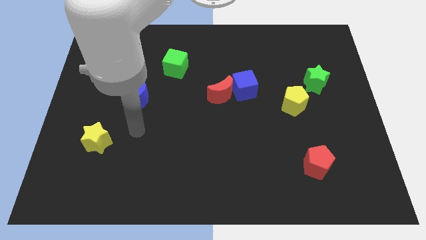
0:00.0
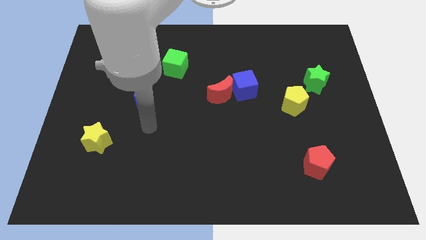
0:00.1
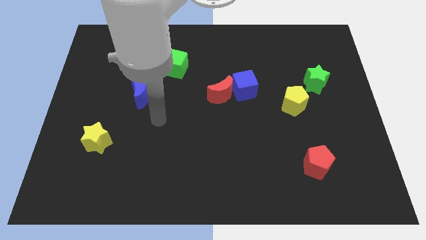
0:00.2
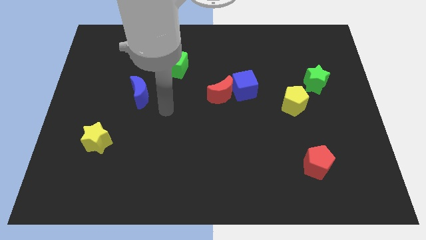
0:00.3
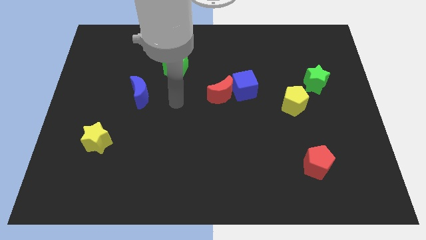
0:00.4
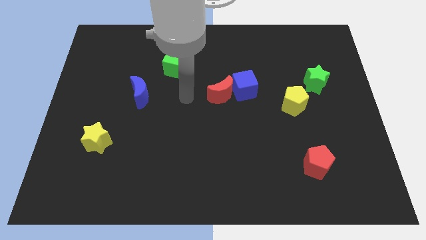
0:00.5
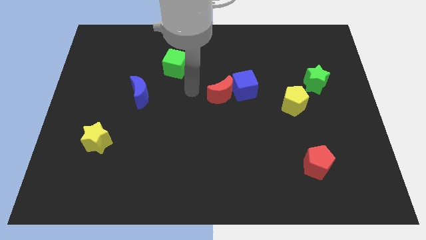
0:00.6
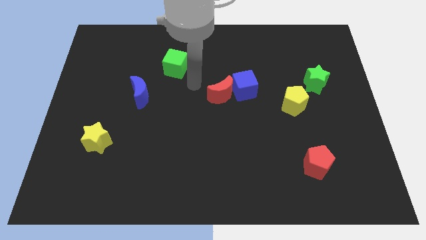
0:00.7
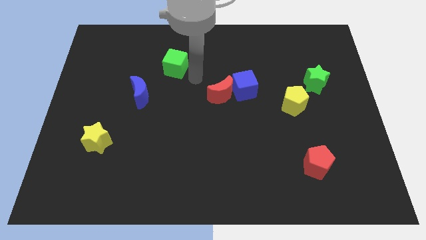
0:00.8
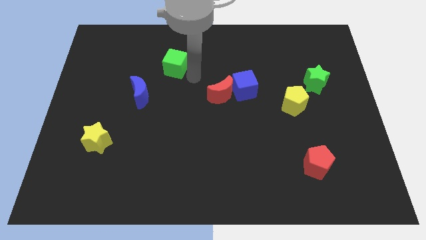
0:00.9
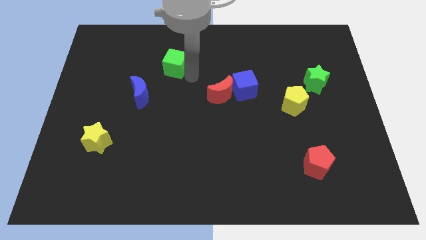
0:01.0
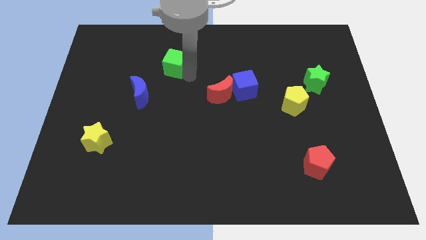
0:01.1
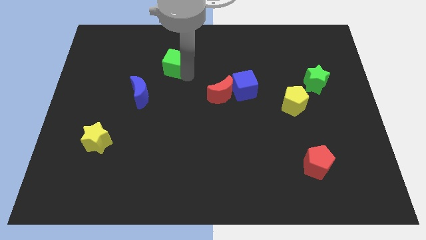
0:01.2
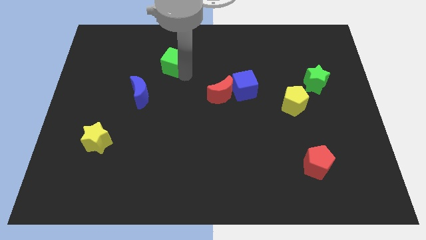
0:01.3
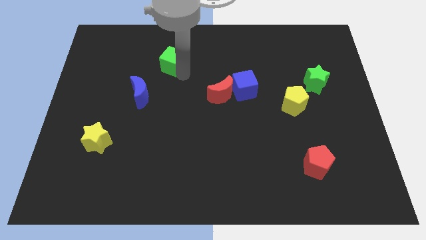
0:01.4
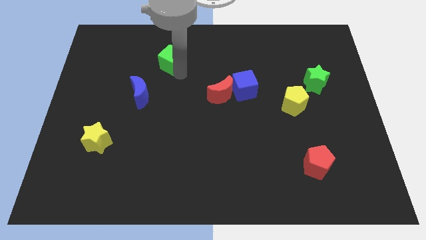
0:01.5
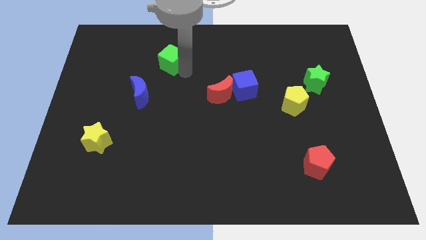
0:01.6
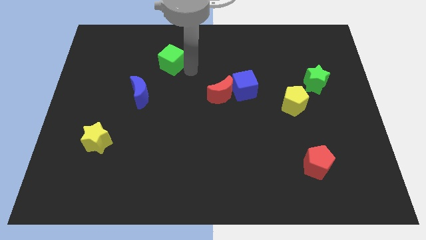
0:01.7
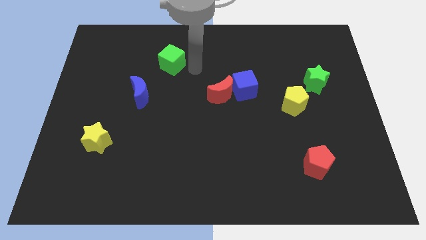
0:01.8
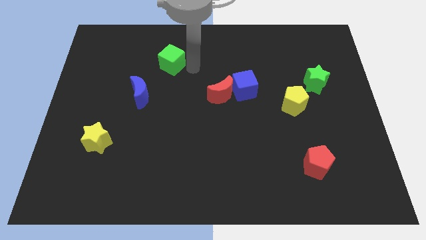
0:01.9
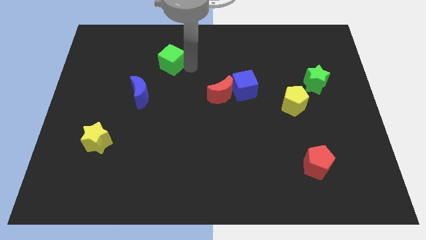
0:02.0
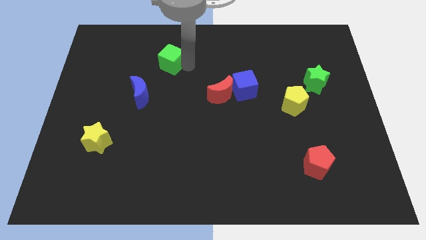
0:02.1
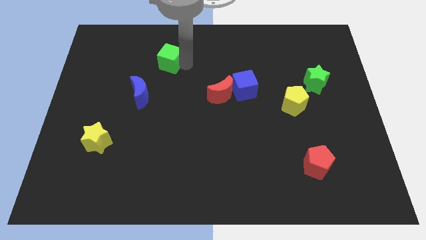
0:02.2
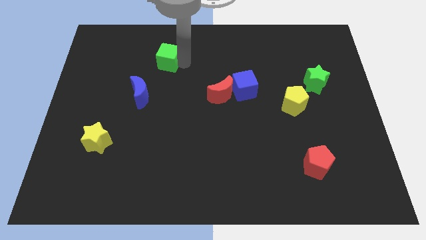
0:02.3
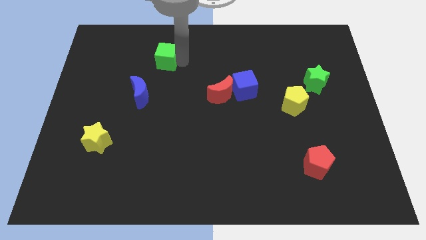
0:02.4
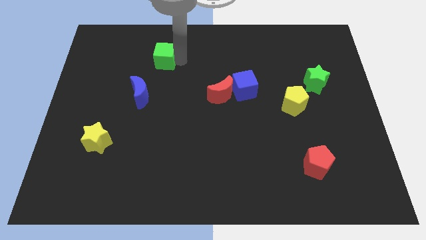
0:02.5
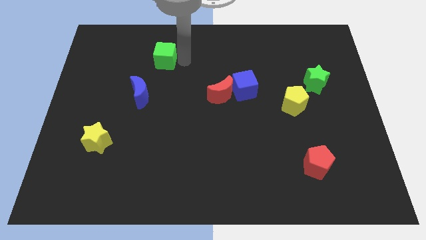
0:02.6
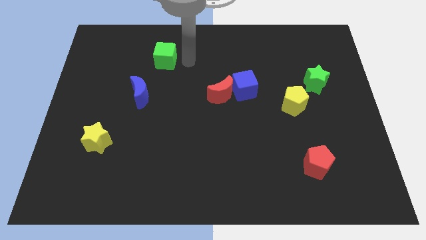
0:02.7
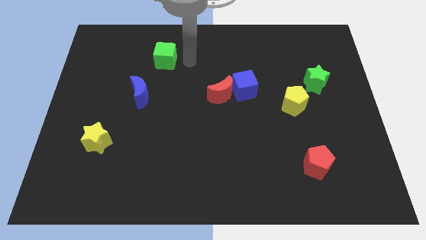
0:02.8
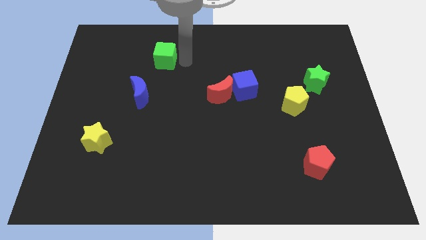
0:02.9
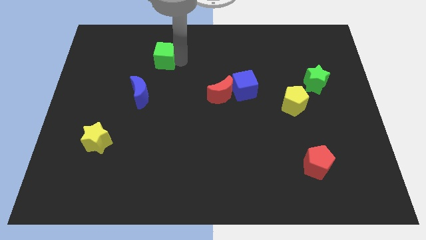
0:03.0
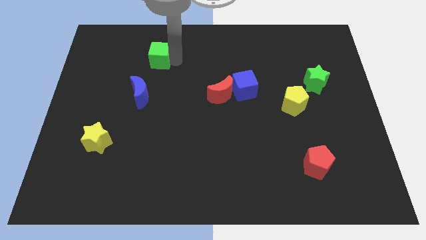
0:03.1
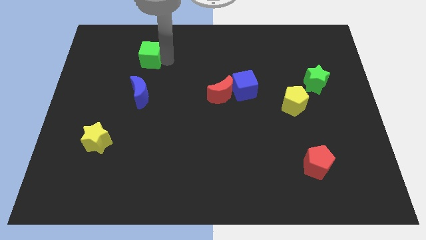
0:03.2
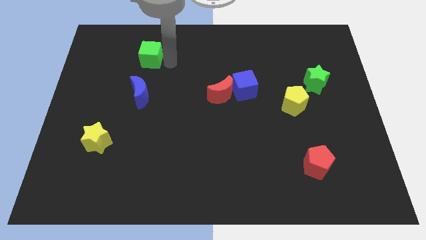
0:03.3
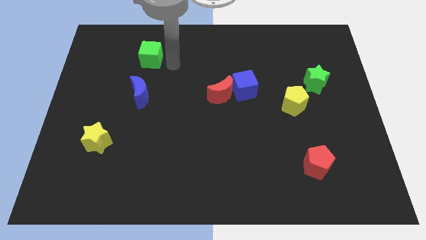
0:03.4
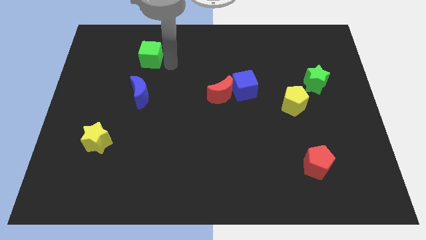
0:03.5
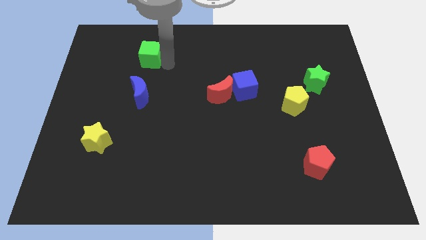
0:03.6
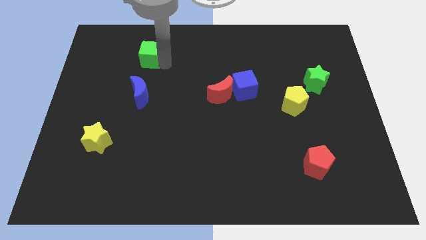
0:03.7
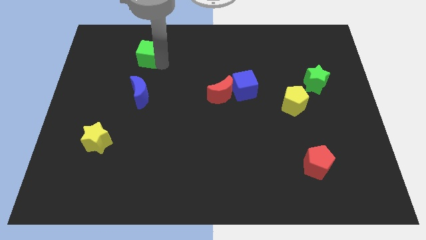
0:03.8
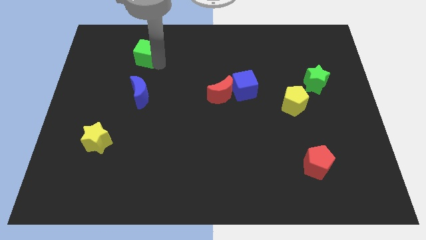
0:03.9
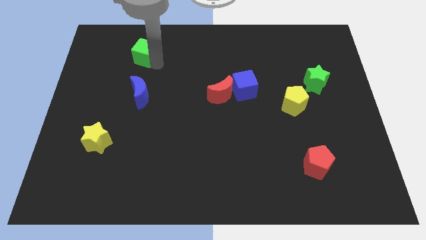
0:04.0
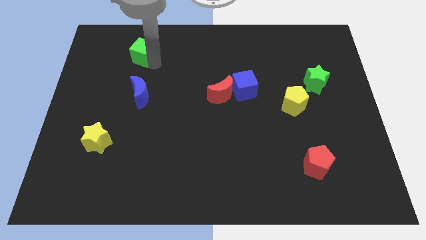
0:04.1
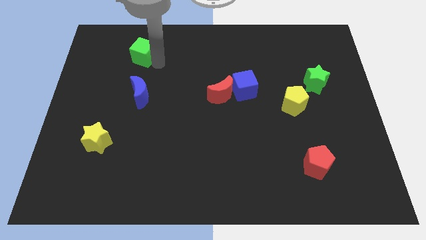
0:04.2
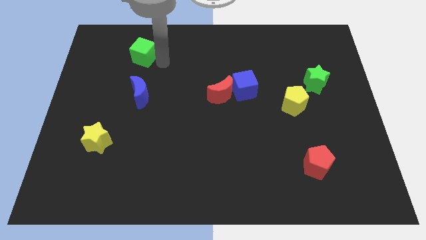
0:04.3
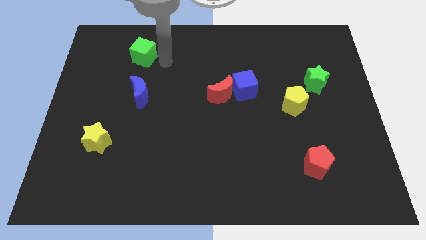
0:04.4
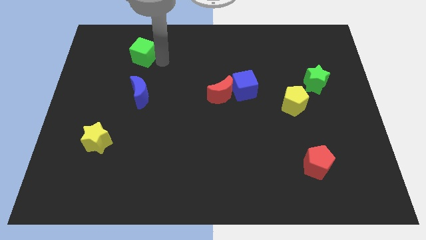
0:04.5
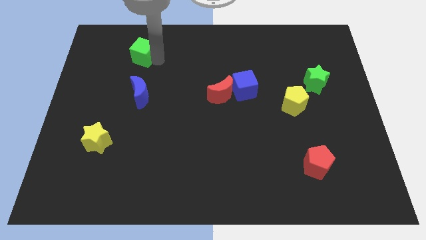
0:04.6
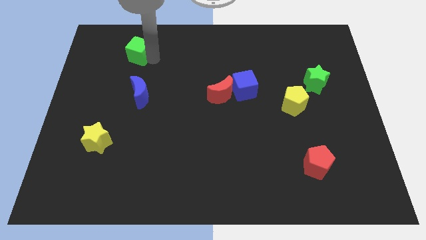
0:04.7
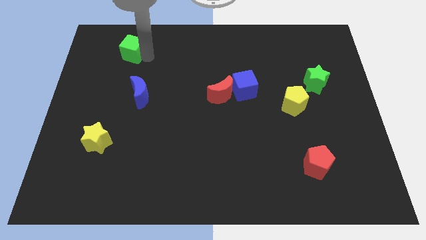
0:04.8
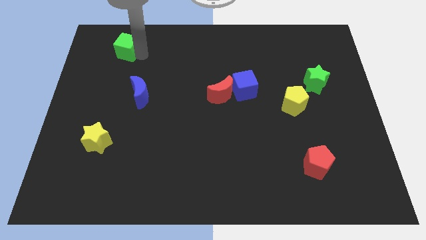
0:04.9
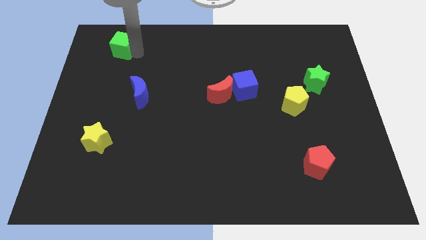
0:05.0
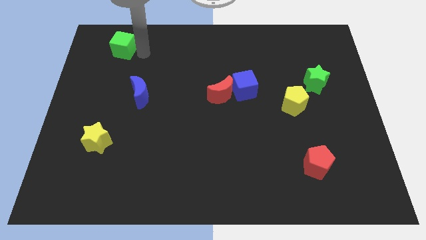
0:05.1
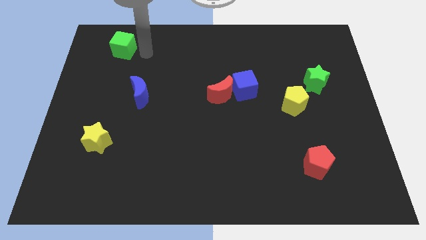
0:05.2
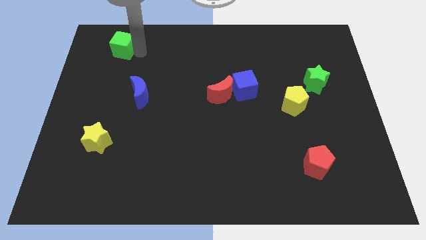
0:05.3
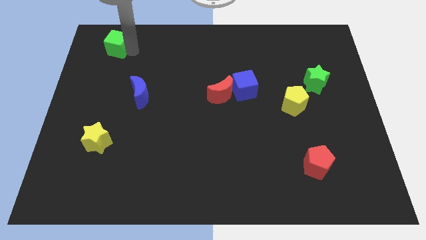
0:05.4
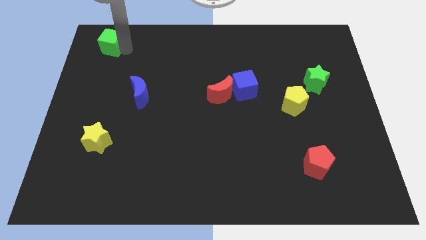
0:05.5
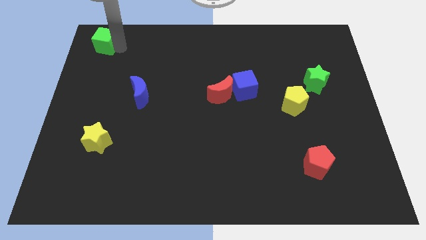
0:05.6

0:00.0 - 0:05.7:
push the green cube to the upper left corner

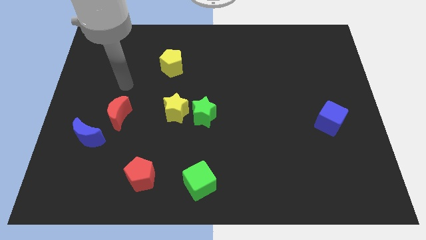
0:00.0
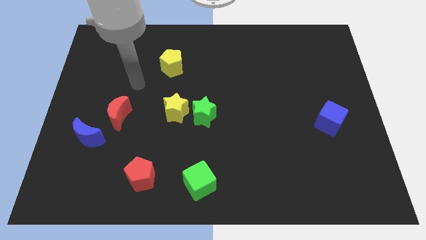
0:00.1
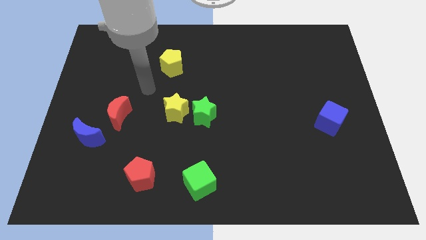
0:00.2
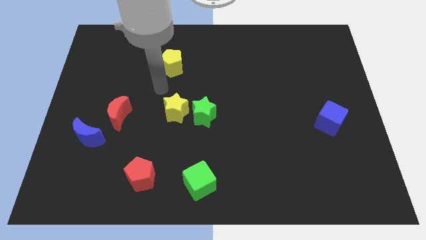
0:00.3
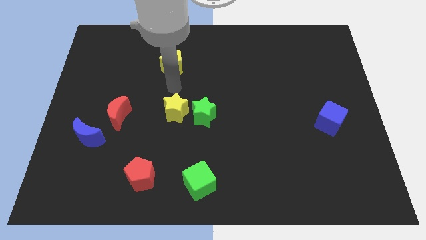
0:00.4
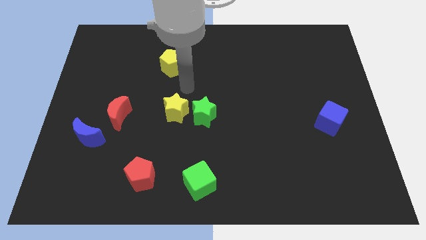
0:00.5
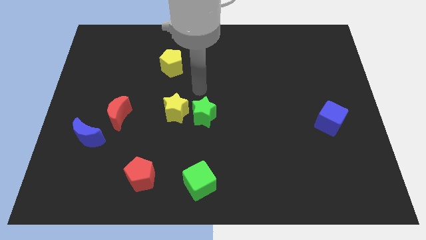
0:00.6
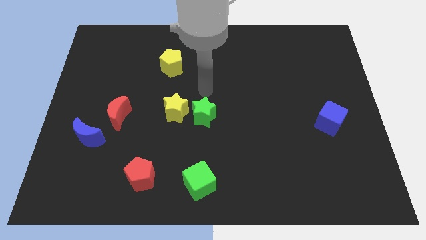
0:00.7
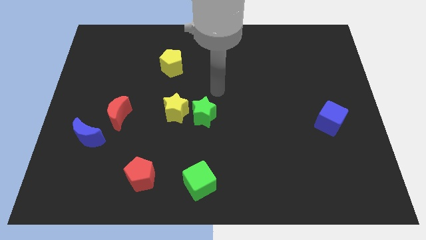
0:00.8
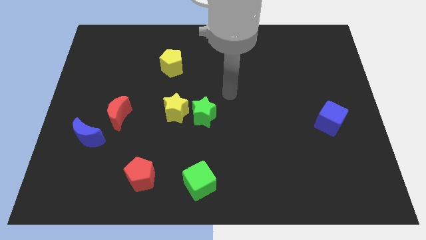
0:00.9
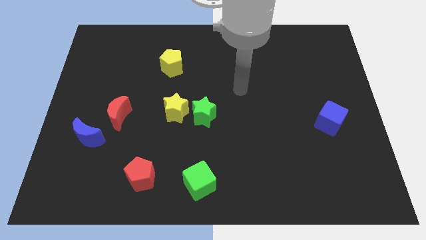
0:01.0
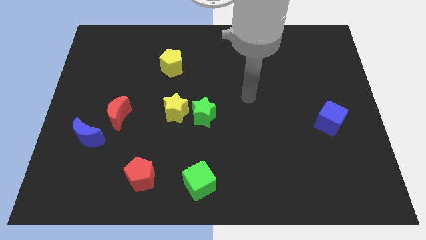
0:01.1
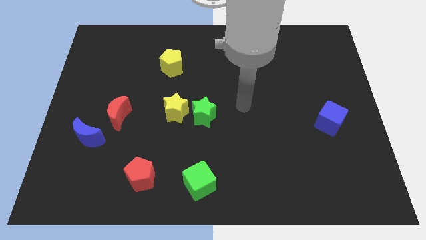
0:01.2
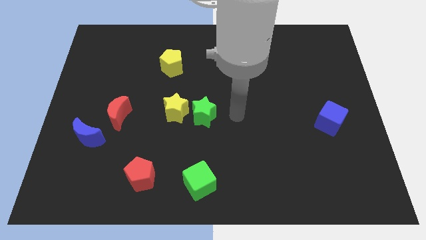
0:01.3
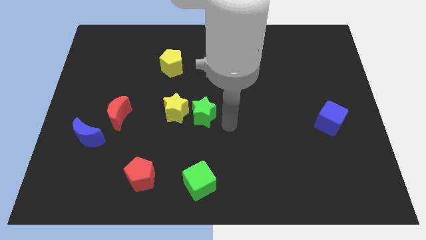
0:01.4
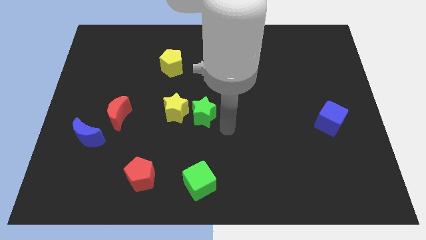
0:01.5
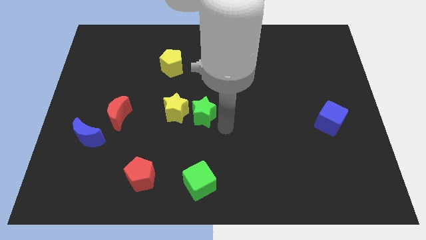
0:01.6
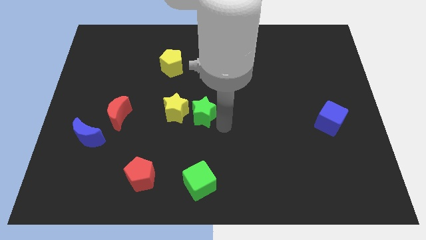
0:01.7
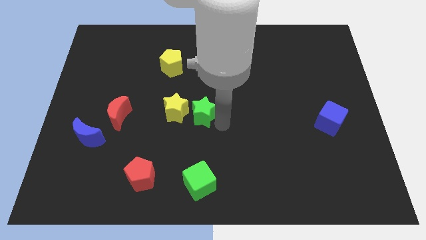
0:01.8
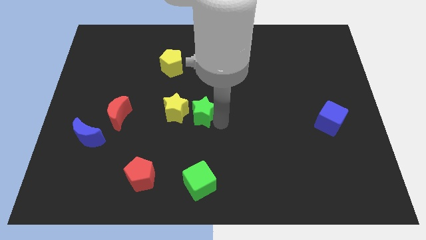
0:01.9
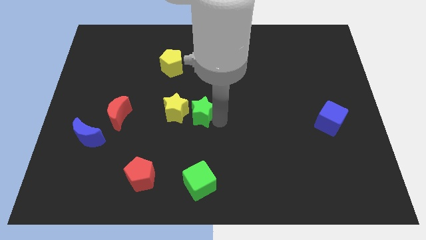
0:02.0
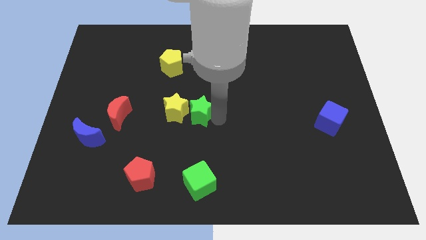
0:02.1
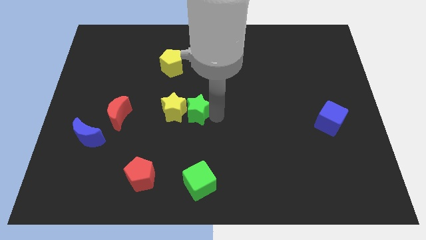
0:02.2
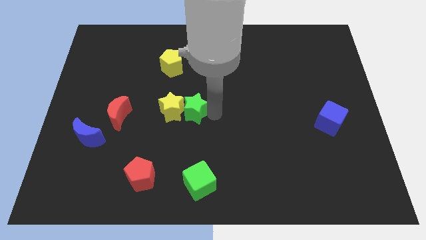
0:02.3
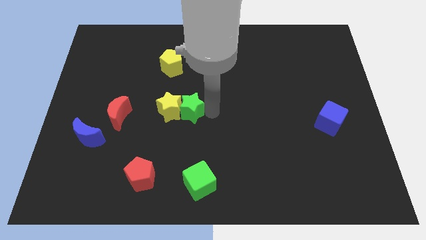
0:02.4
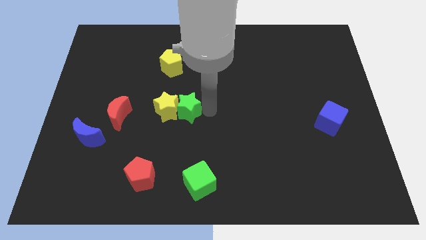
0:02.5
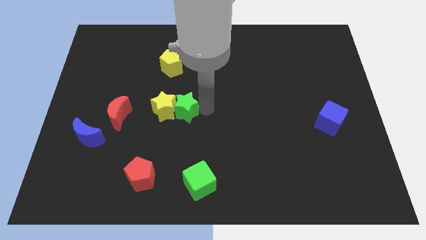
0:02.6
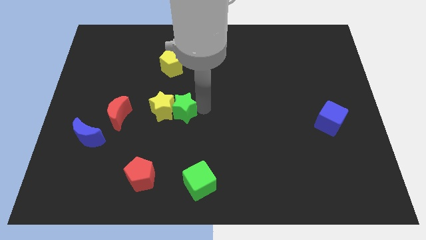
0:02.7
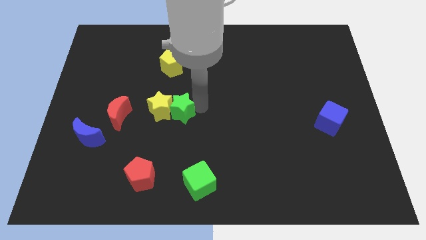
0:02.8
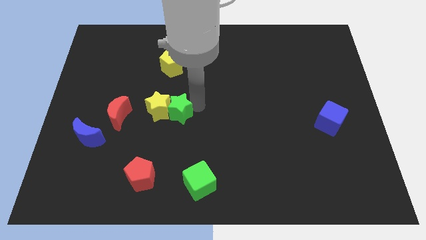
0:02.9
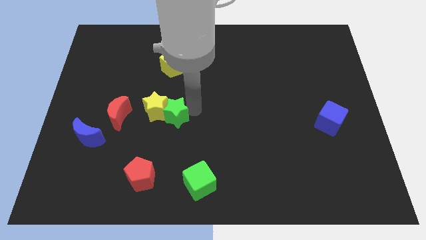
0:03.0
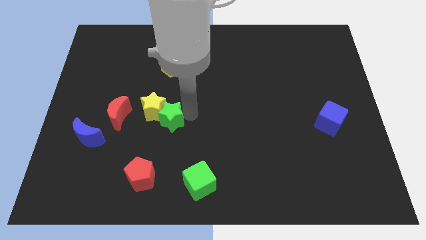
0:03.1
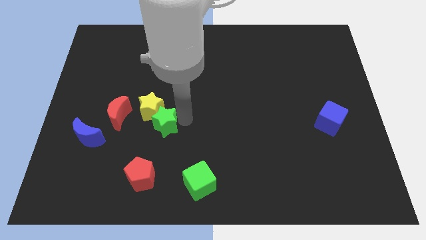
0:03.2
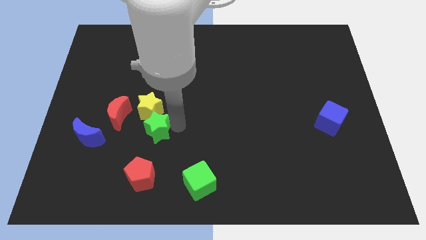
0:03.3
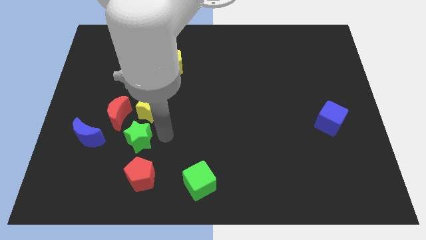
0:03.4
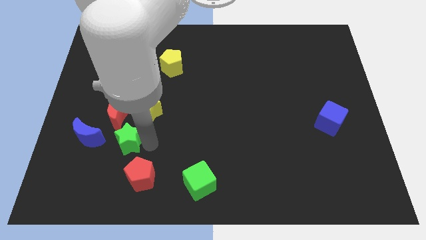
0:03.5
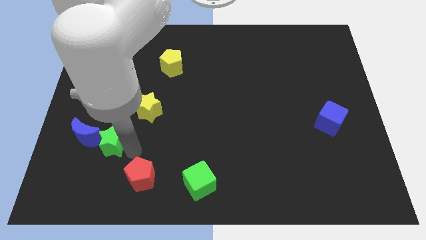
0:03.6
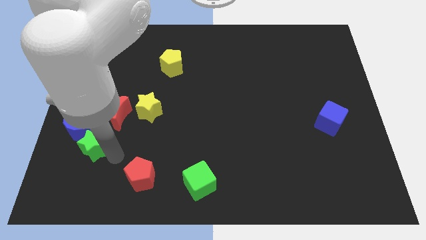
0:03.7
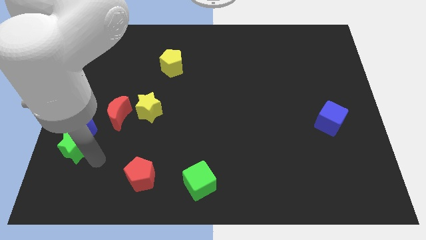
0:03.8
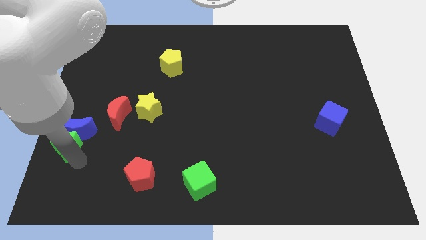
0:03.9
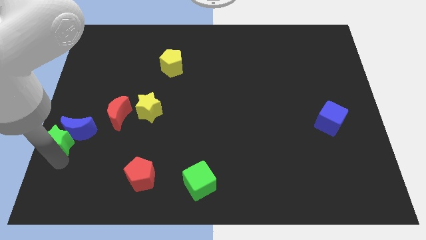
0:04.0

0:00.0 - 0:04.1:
move the green star to the center left
